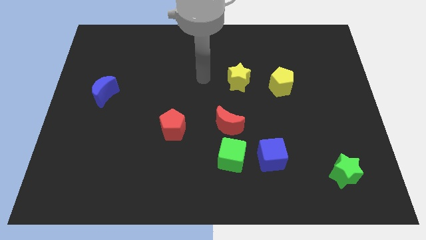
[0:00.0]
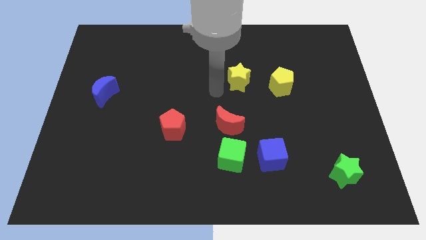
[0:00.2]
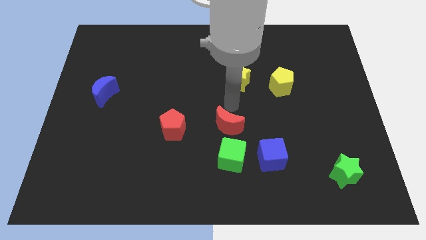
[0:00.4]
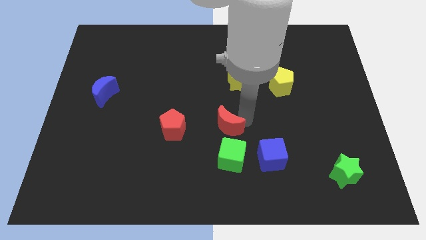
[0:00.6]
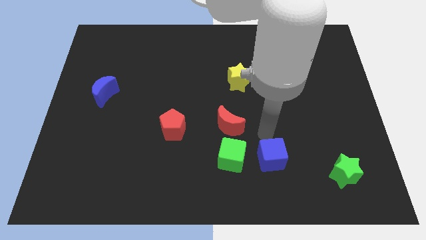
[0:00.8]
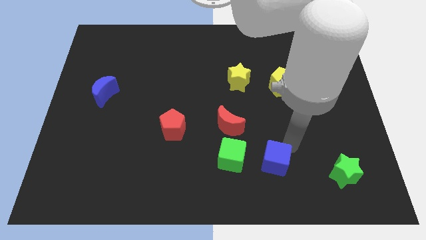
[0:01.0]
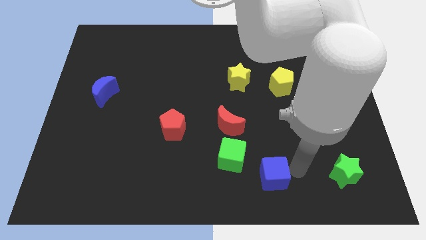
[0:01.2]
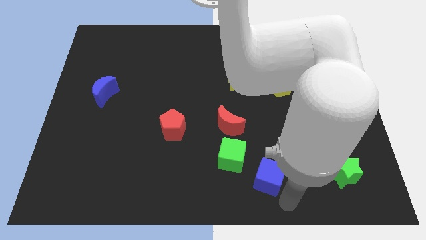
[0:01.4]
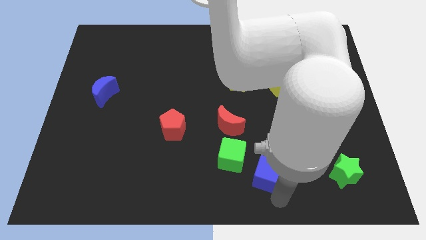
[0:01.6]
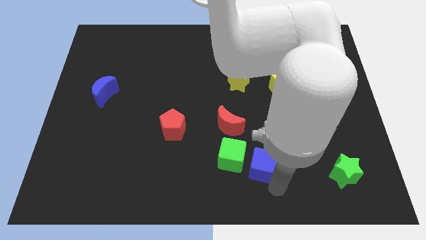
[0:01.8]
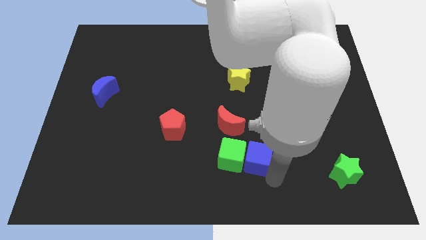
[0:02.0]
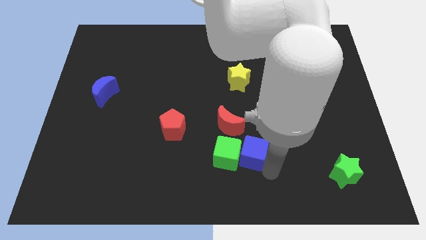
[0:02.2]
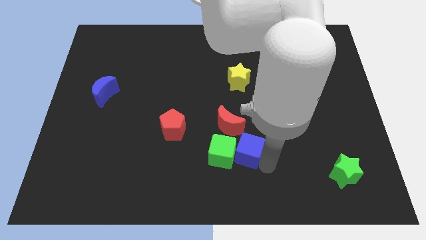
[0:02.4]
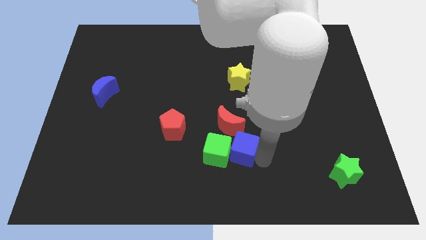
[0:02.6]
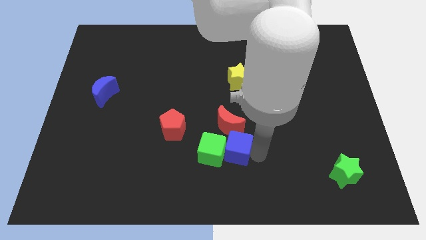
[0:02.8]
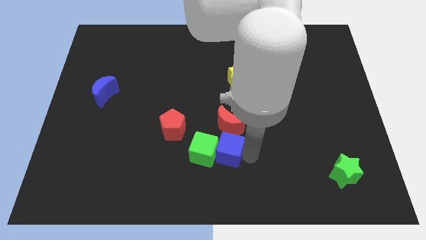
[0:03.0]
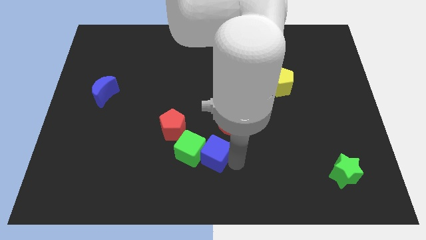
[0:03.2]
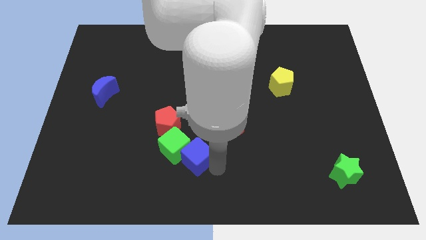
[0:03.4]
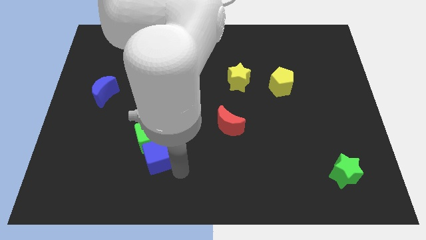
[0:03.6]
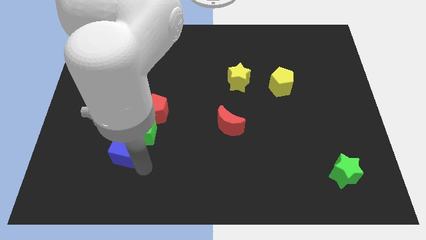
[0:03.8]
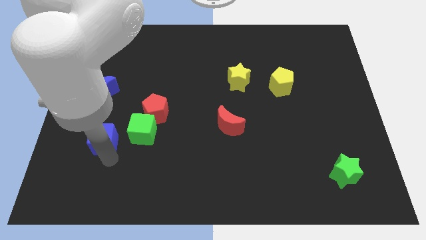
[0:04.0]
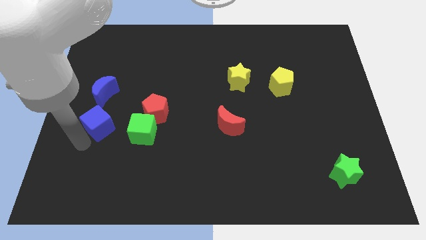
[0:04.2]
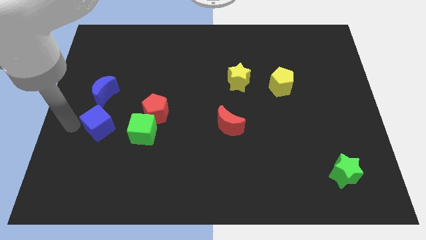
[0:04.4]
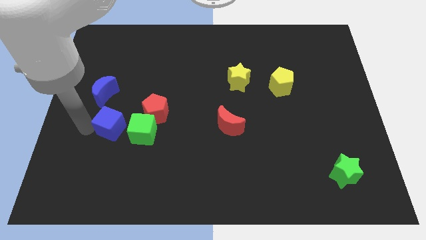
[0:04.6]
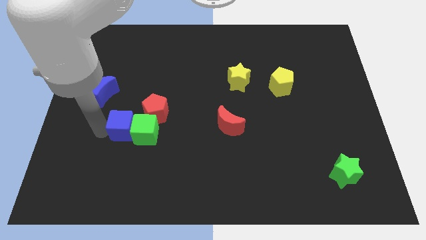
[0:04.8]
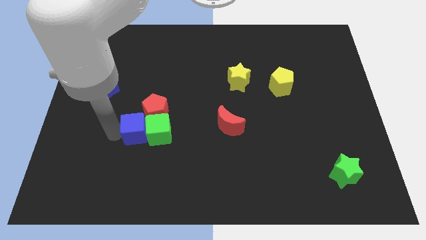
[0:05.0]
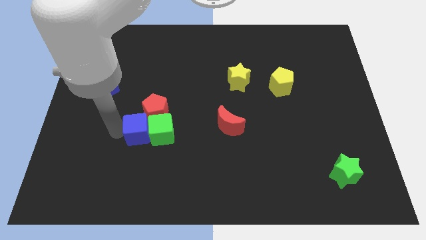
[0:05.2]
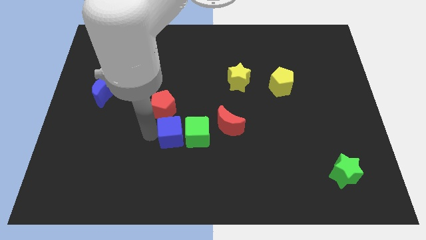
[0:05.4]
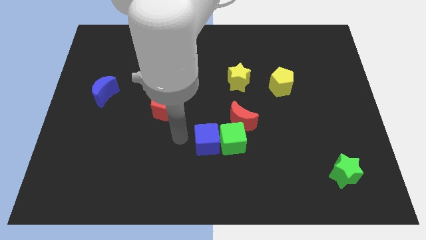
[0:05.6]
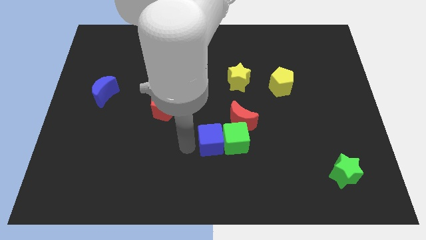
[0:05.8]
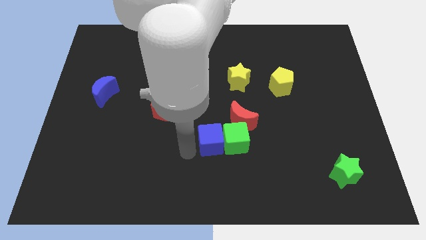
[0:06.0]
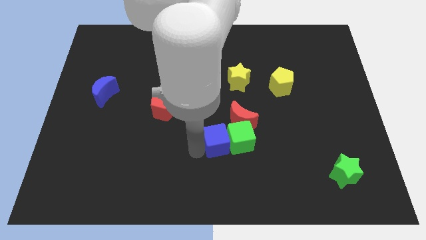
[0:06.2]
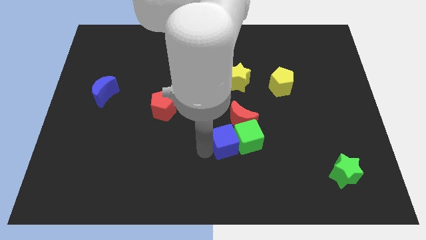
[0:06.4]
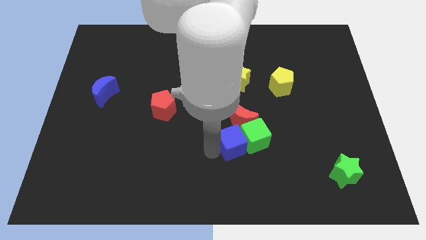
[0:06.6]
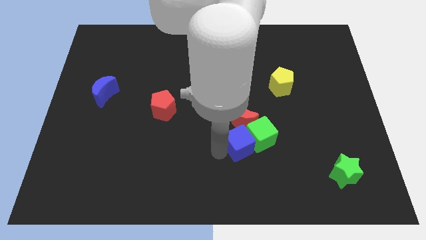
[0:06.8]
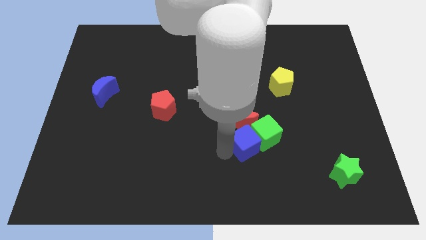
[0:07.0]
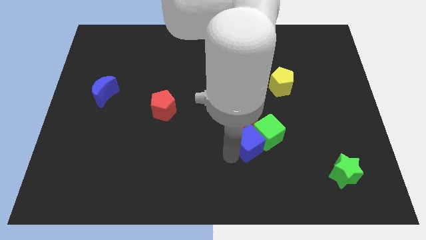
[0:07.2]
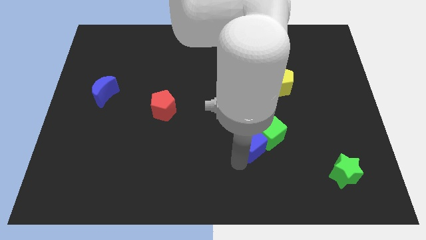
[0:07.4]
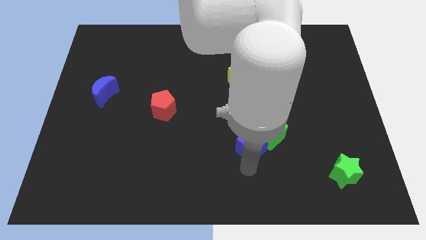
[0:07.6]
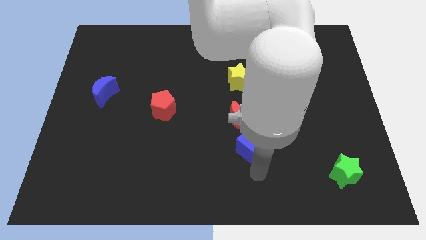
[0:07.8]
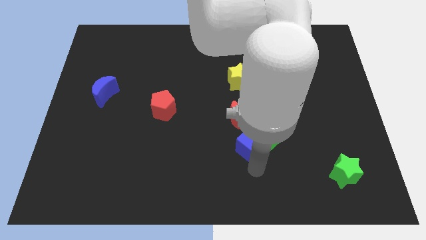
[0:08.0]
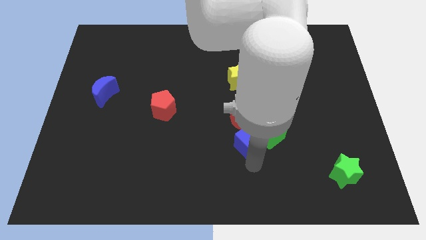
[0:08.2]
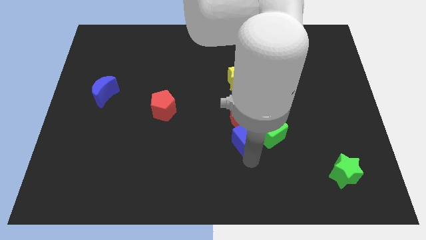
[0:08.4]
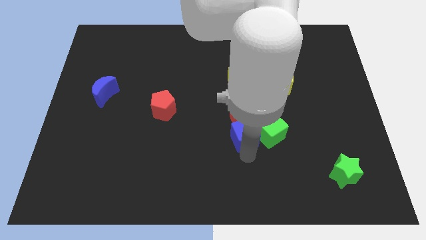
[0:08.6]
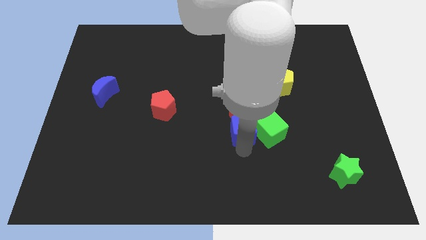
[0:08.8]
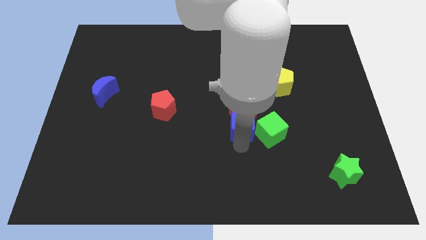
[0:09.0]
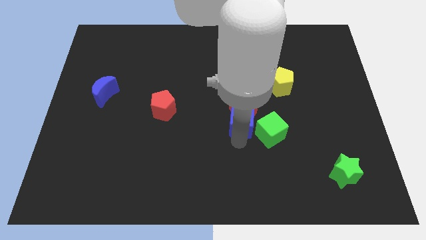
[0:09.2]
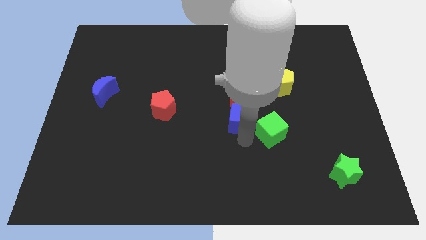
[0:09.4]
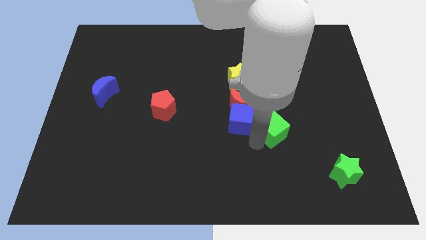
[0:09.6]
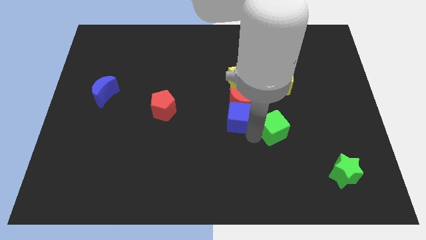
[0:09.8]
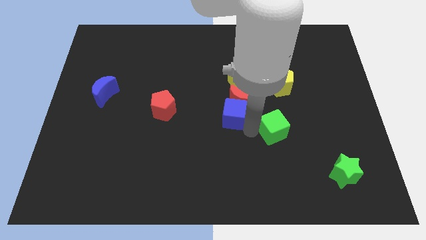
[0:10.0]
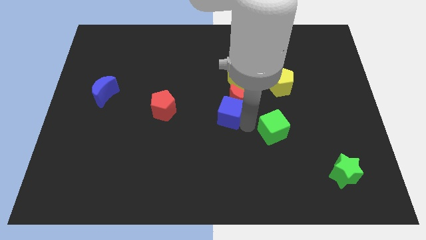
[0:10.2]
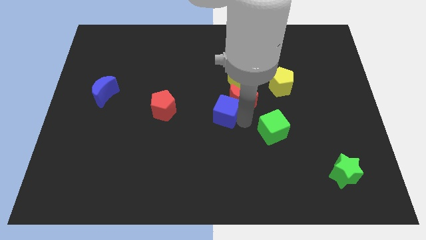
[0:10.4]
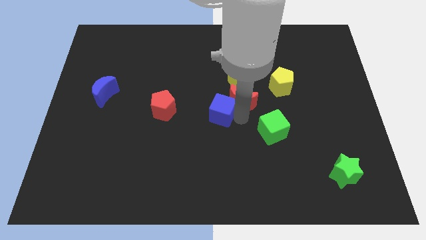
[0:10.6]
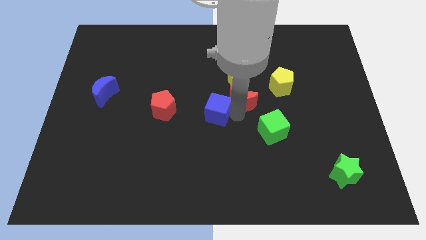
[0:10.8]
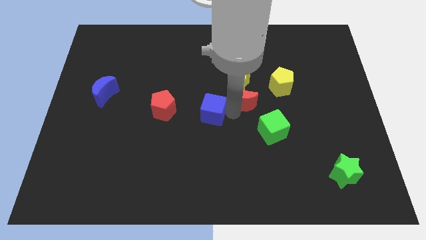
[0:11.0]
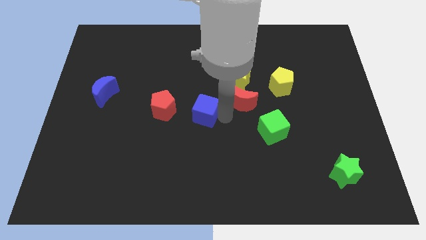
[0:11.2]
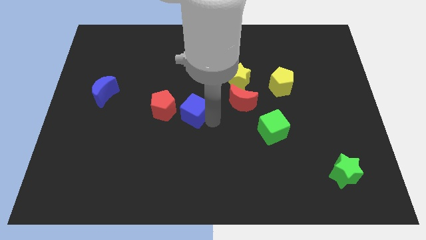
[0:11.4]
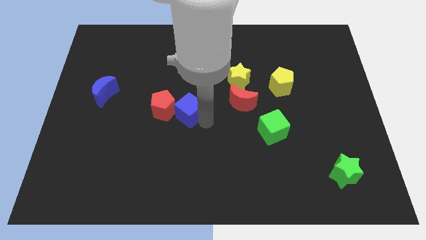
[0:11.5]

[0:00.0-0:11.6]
move the blue cube upwards and left

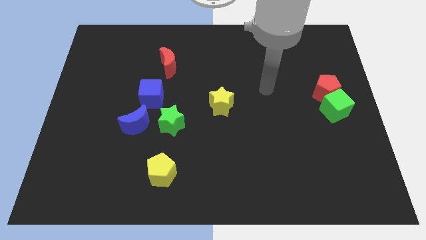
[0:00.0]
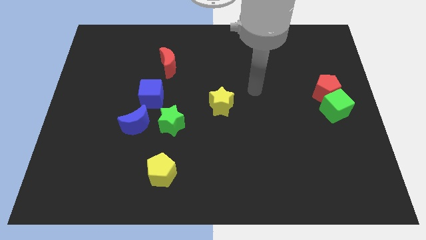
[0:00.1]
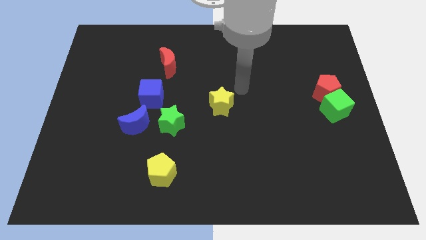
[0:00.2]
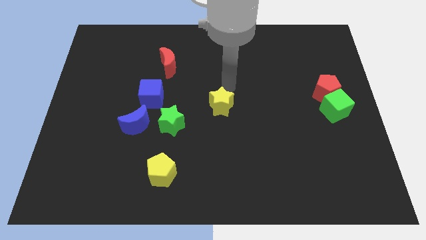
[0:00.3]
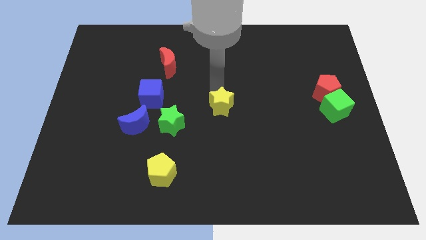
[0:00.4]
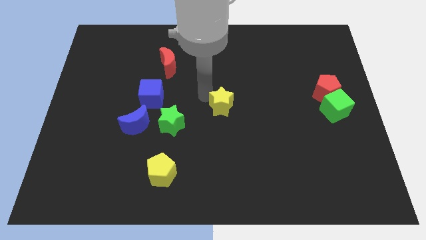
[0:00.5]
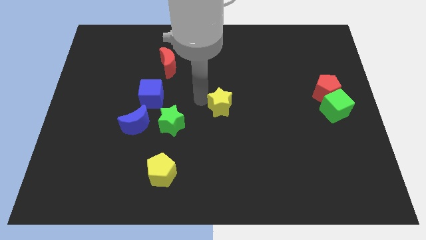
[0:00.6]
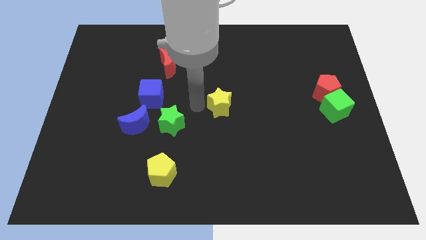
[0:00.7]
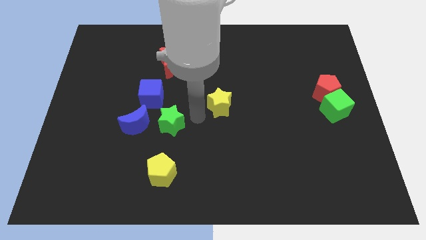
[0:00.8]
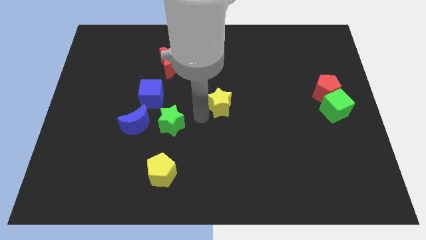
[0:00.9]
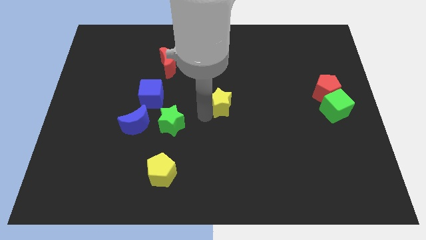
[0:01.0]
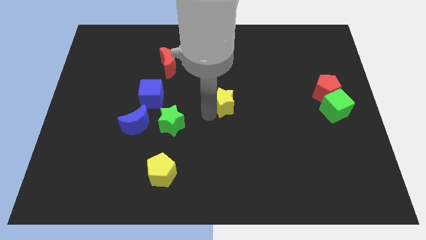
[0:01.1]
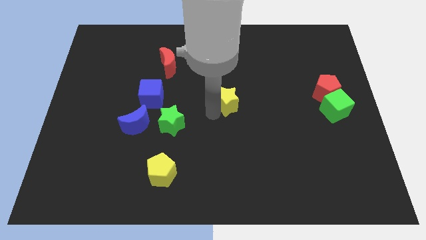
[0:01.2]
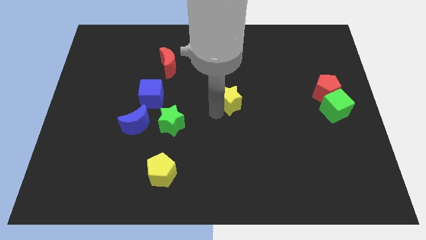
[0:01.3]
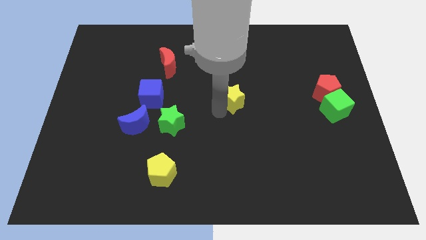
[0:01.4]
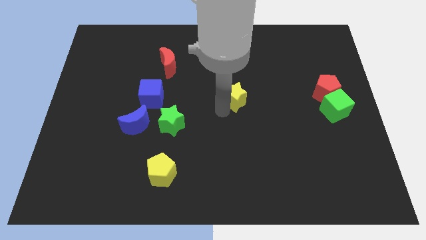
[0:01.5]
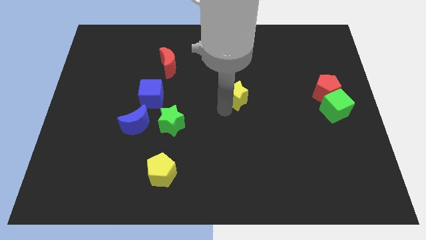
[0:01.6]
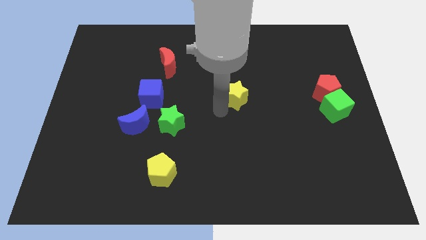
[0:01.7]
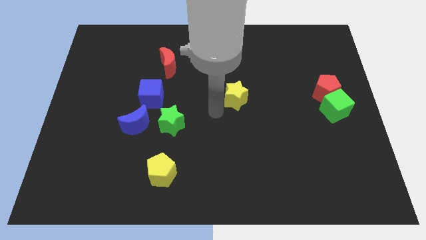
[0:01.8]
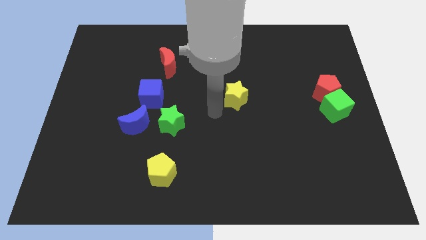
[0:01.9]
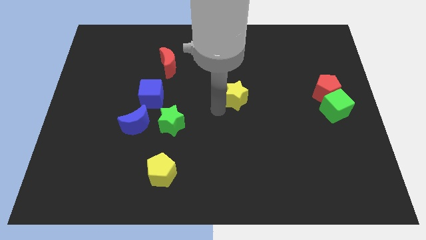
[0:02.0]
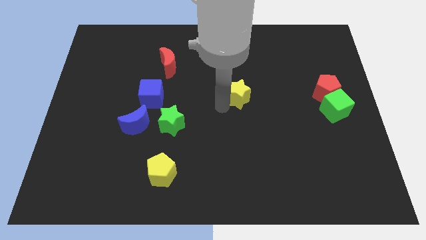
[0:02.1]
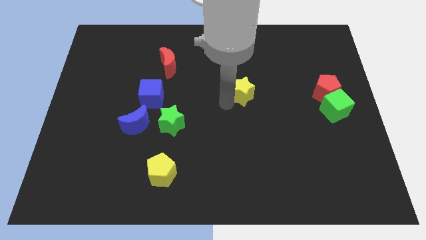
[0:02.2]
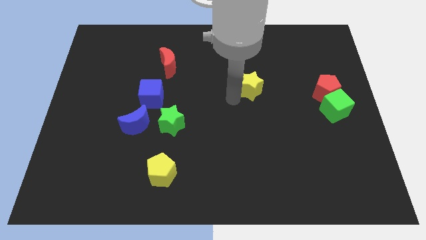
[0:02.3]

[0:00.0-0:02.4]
slide the yellow star a little up and then right
